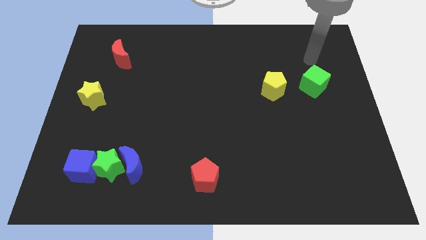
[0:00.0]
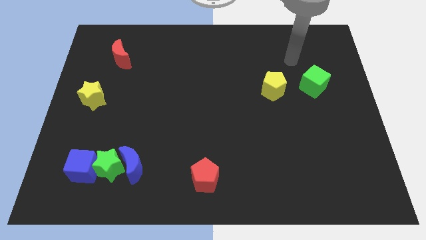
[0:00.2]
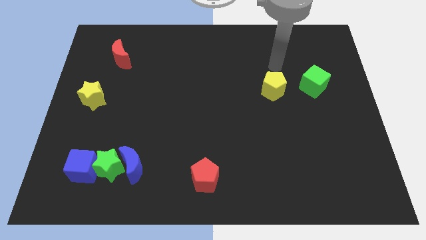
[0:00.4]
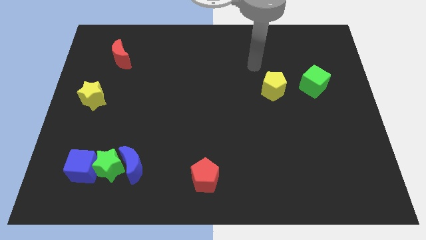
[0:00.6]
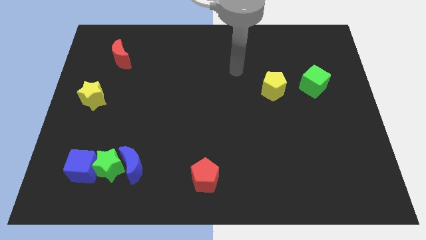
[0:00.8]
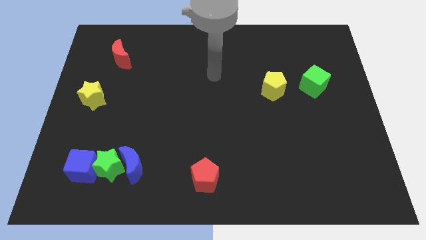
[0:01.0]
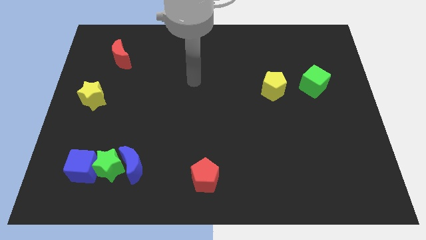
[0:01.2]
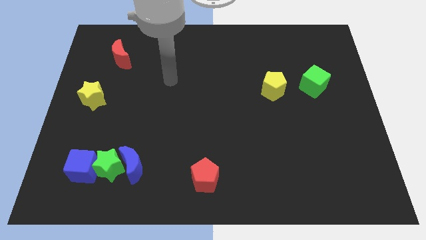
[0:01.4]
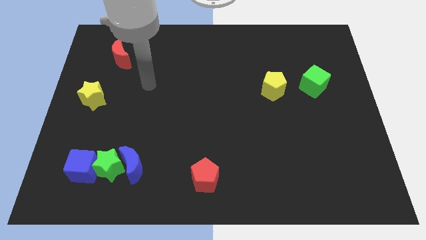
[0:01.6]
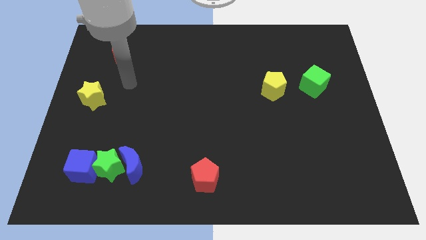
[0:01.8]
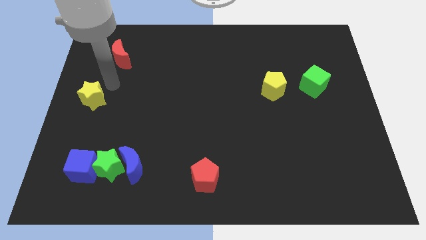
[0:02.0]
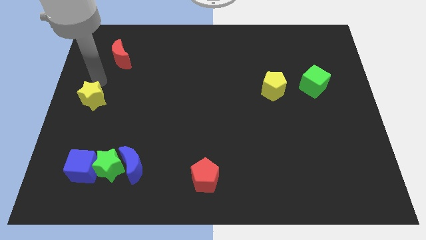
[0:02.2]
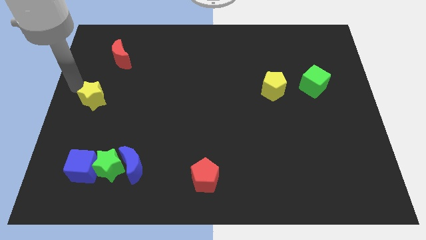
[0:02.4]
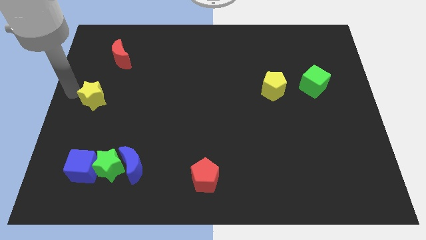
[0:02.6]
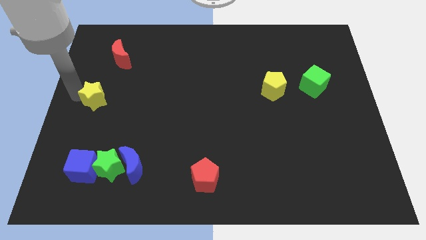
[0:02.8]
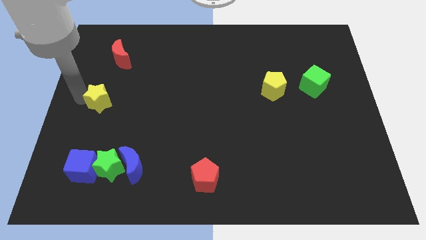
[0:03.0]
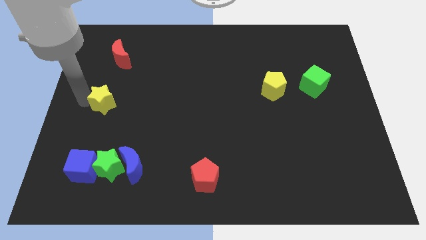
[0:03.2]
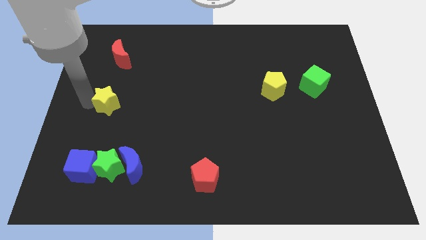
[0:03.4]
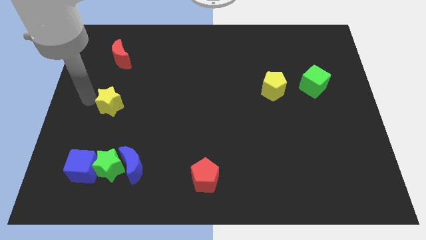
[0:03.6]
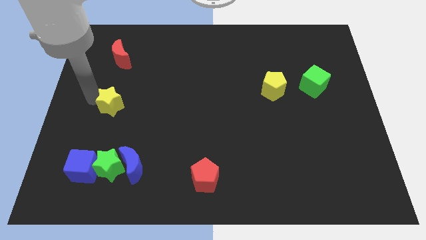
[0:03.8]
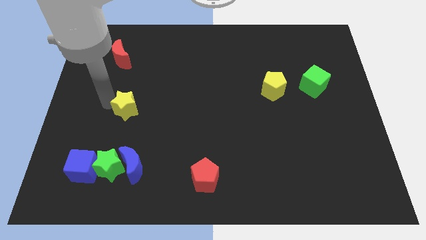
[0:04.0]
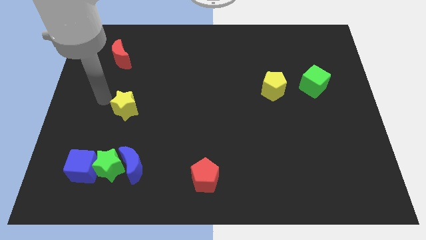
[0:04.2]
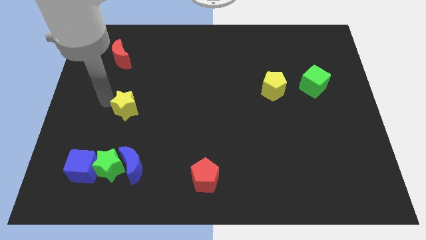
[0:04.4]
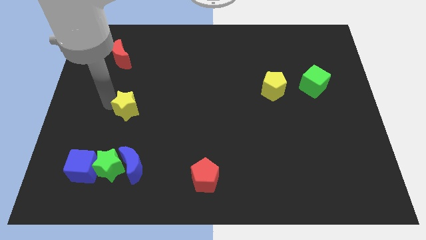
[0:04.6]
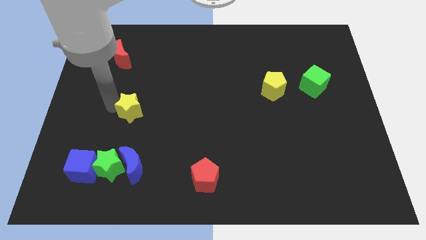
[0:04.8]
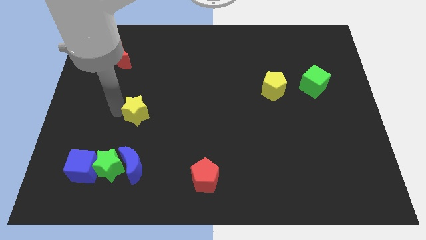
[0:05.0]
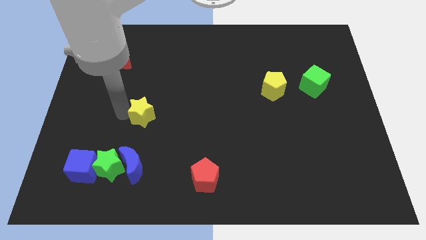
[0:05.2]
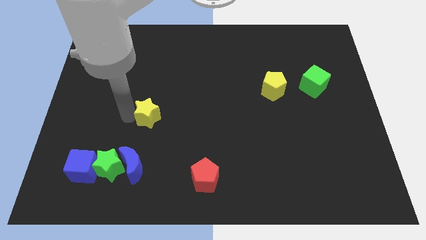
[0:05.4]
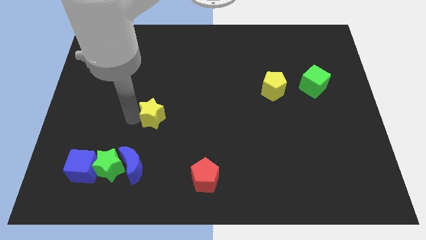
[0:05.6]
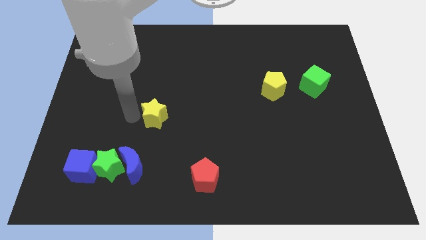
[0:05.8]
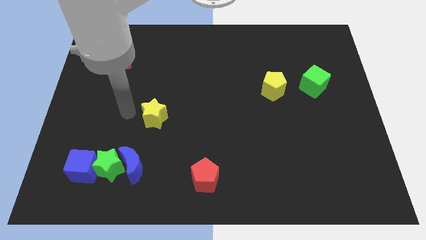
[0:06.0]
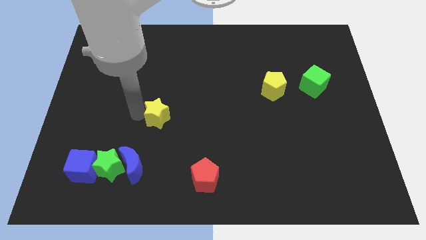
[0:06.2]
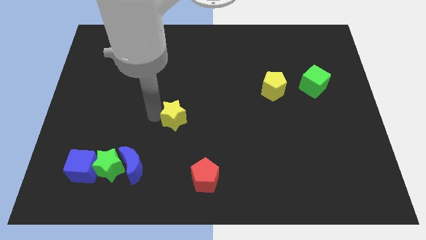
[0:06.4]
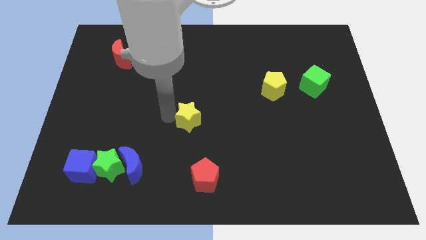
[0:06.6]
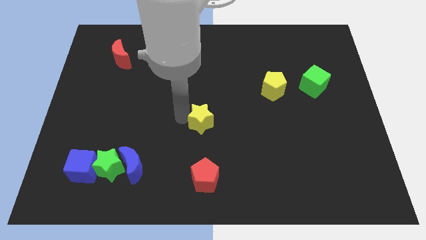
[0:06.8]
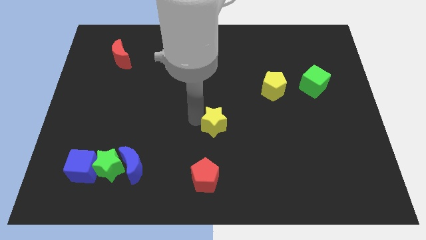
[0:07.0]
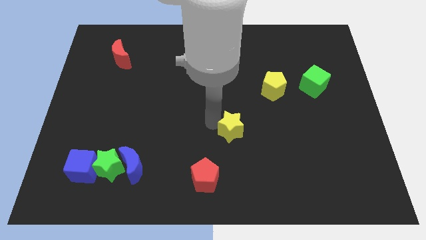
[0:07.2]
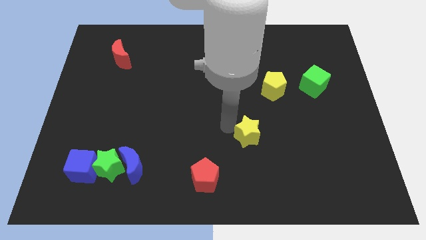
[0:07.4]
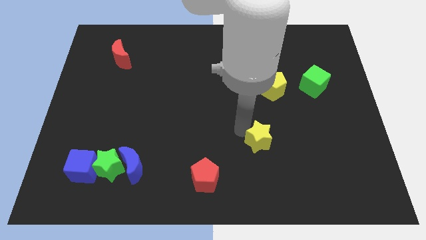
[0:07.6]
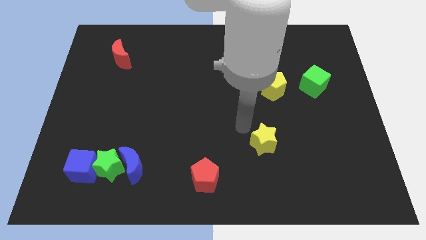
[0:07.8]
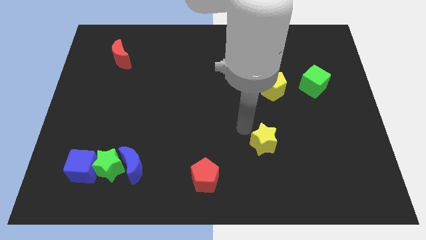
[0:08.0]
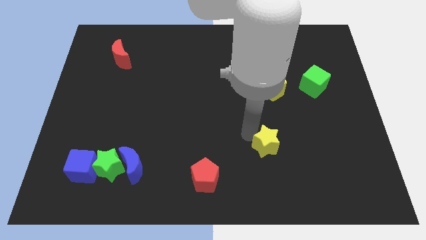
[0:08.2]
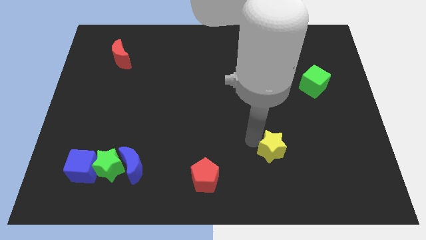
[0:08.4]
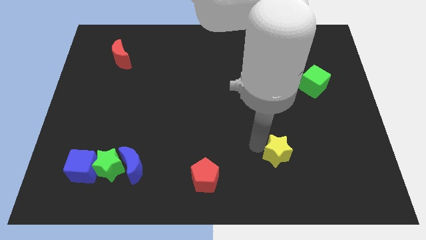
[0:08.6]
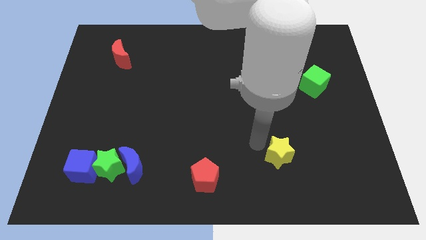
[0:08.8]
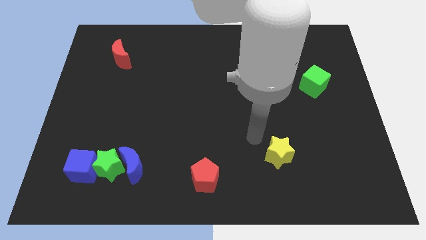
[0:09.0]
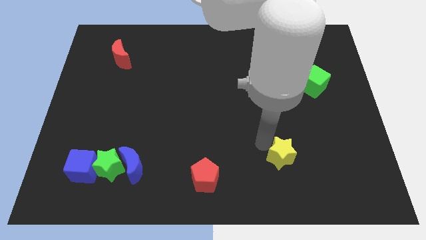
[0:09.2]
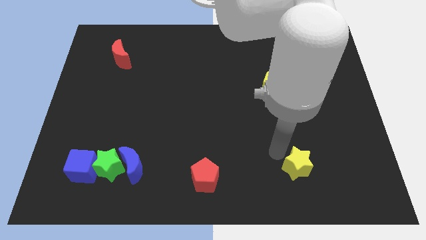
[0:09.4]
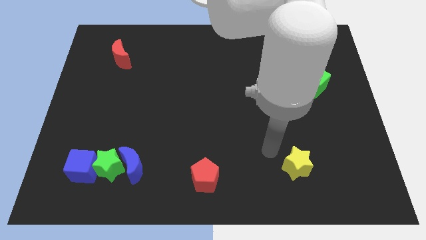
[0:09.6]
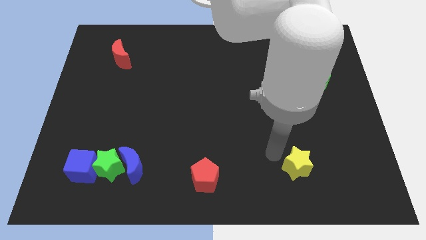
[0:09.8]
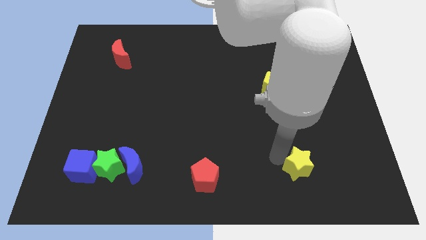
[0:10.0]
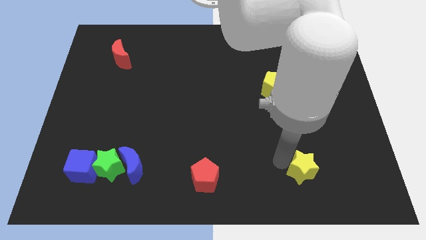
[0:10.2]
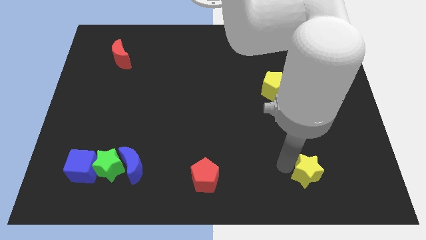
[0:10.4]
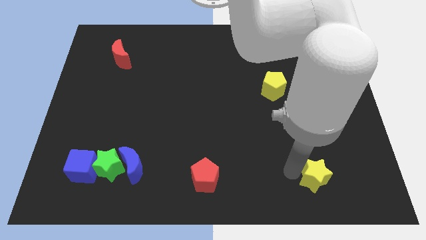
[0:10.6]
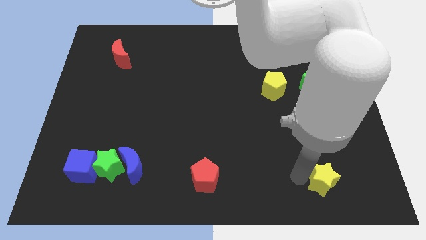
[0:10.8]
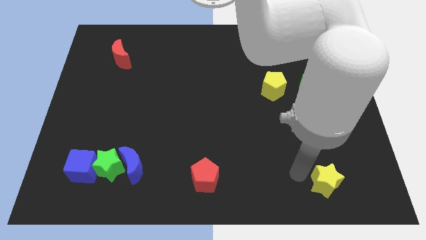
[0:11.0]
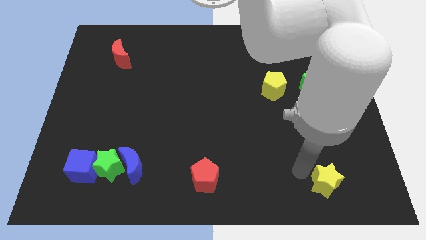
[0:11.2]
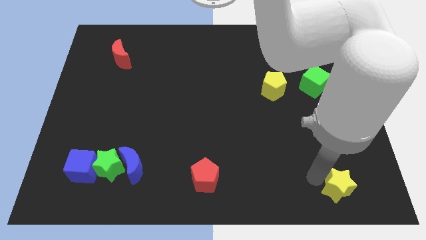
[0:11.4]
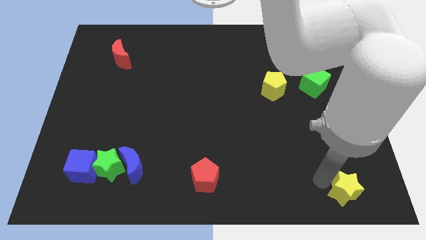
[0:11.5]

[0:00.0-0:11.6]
push the yellow star to the bottom right

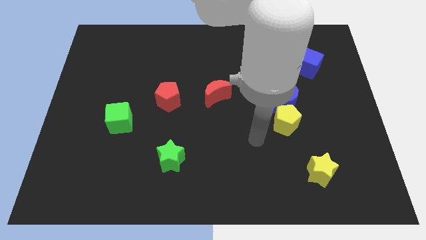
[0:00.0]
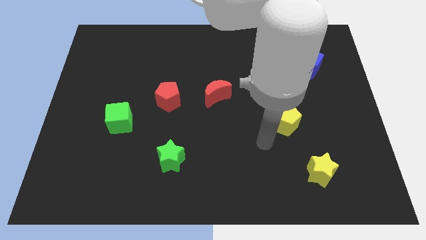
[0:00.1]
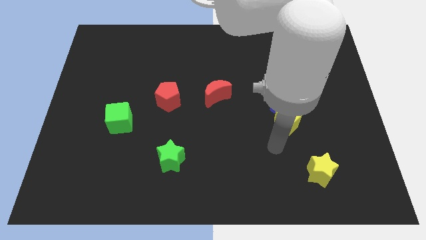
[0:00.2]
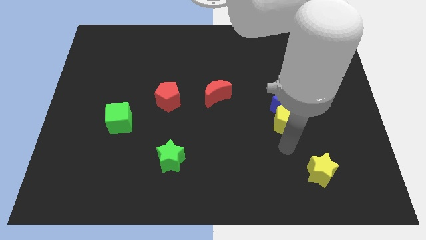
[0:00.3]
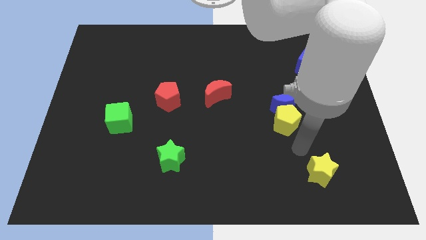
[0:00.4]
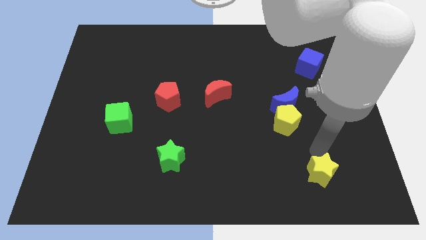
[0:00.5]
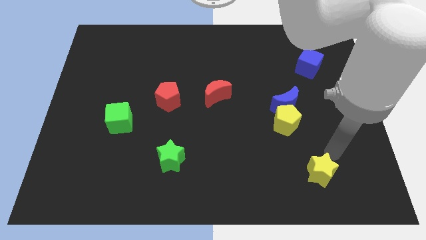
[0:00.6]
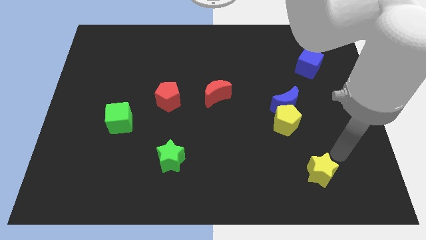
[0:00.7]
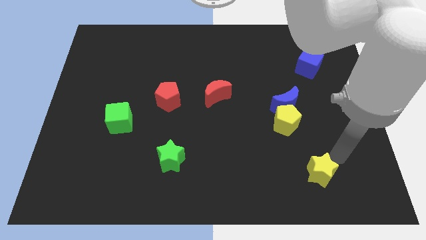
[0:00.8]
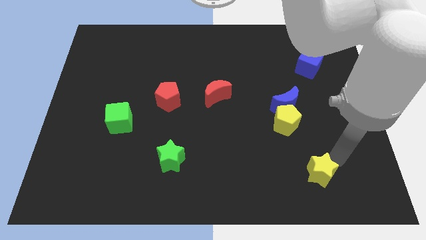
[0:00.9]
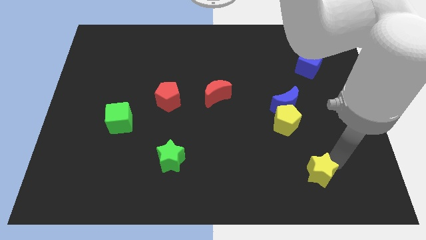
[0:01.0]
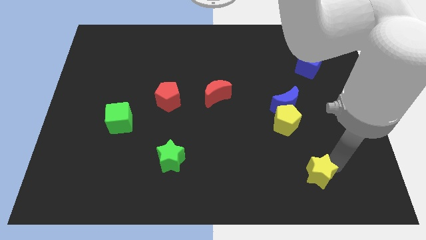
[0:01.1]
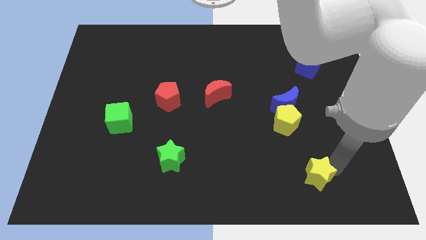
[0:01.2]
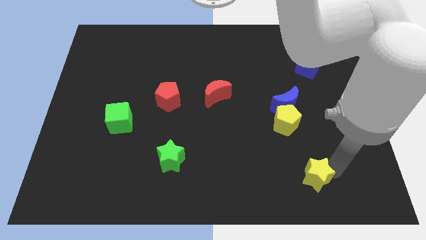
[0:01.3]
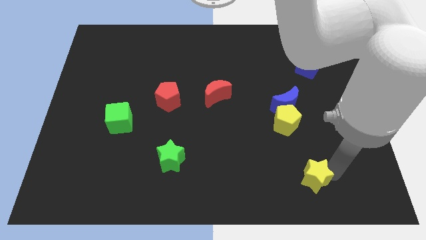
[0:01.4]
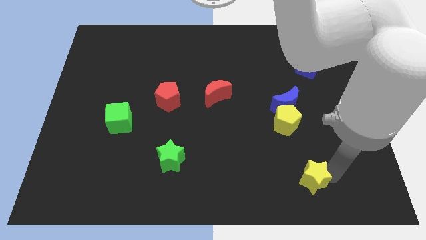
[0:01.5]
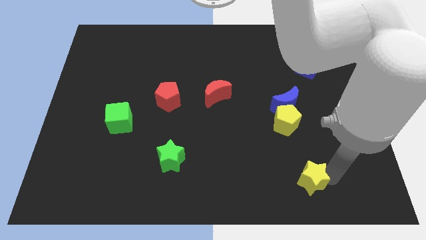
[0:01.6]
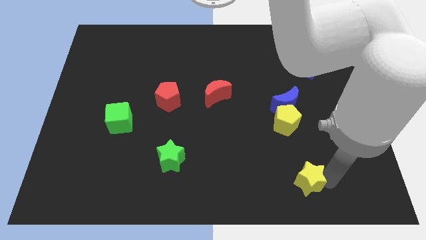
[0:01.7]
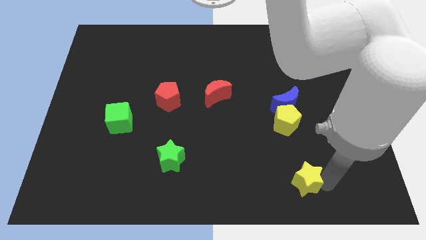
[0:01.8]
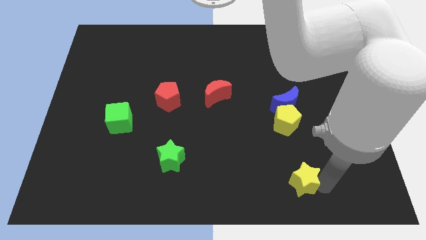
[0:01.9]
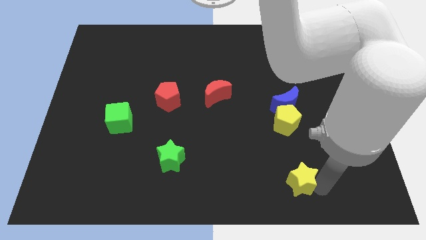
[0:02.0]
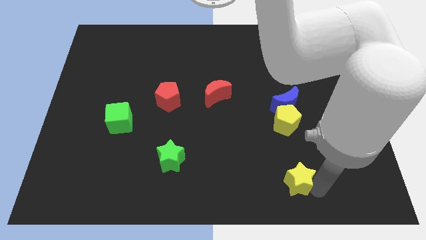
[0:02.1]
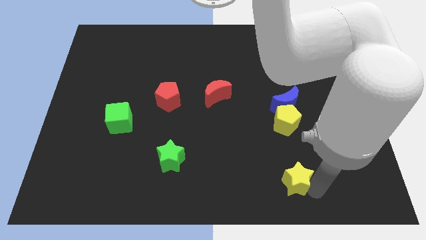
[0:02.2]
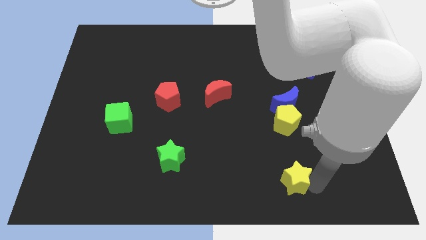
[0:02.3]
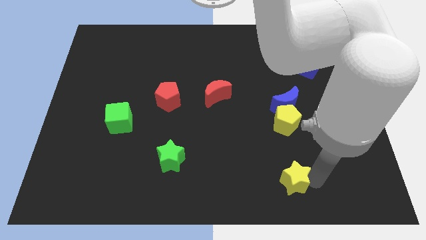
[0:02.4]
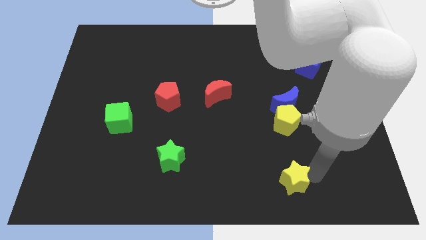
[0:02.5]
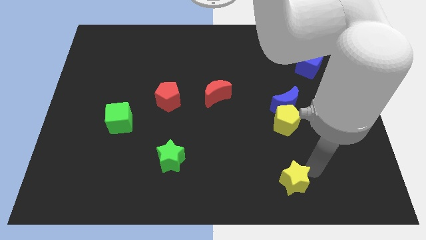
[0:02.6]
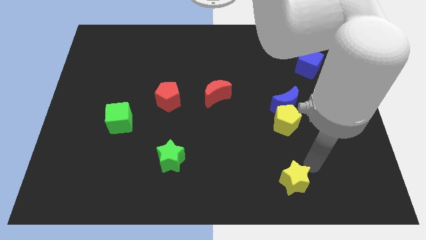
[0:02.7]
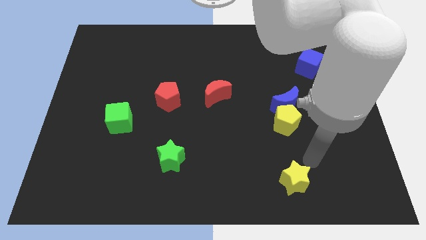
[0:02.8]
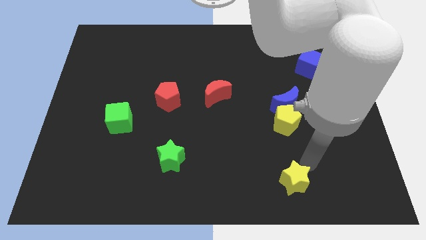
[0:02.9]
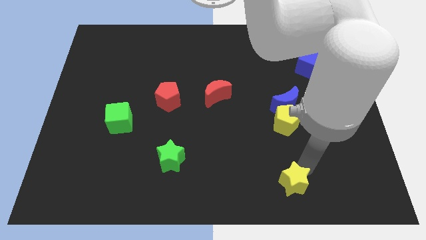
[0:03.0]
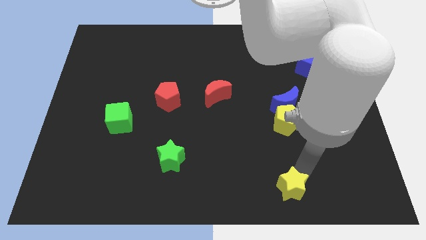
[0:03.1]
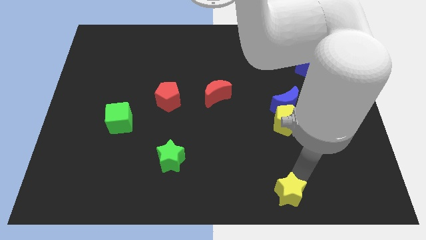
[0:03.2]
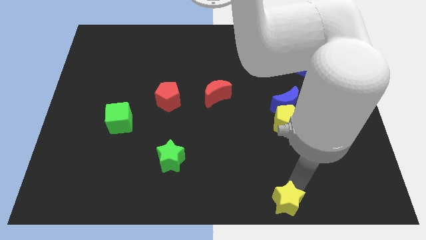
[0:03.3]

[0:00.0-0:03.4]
put the yellow star to the bottom
